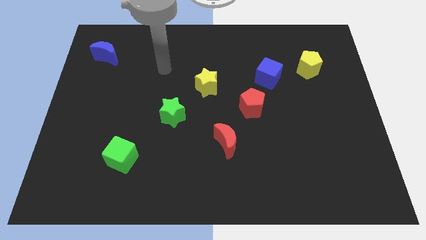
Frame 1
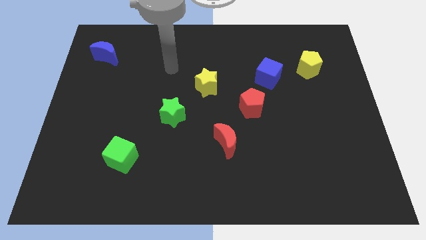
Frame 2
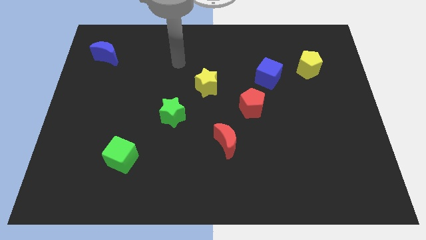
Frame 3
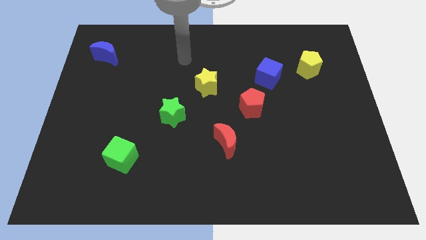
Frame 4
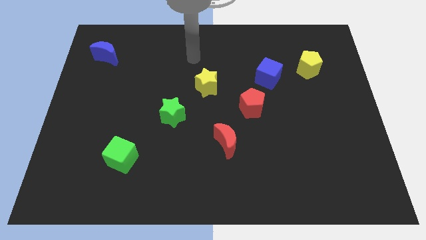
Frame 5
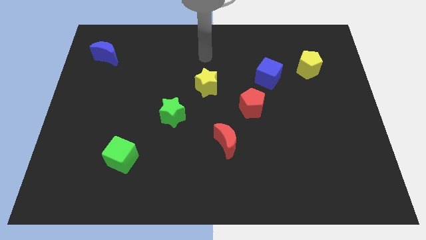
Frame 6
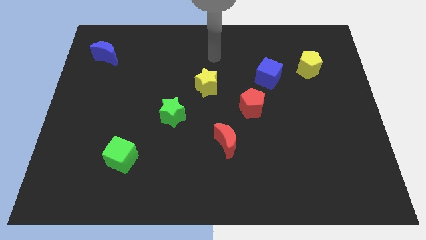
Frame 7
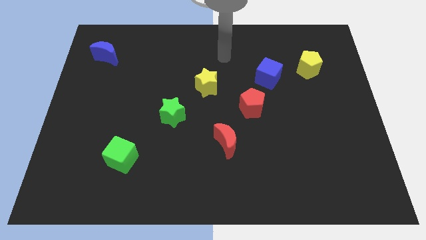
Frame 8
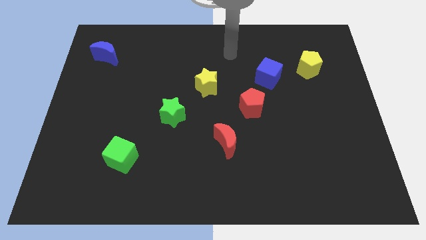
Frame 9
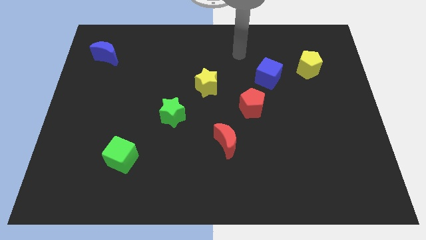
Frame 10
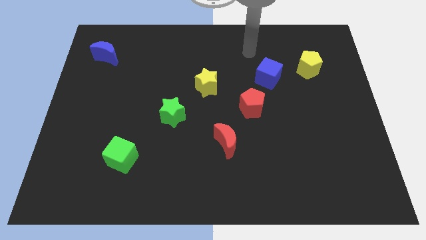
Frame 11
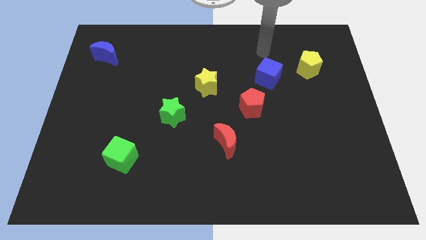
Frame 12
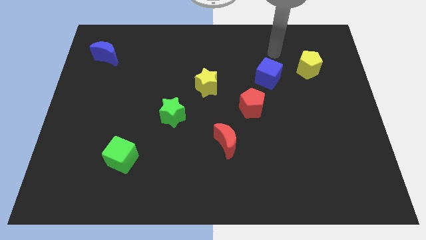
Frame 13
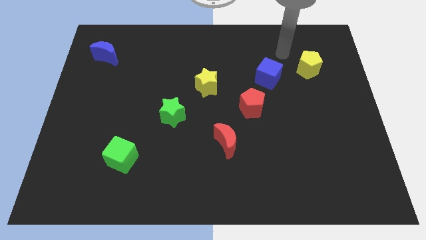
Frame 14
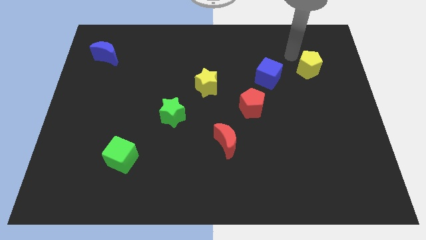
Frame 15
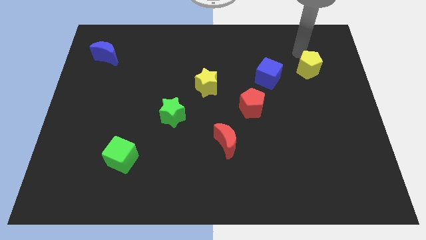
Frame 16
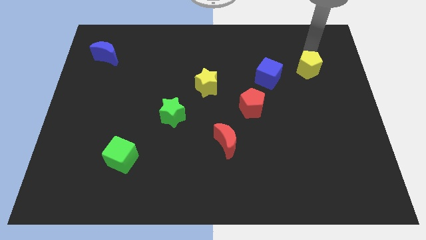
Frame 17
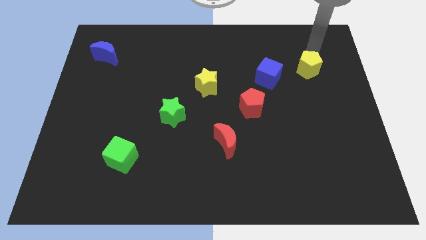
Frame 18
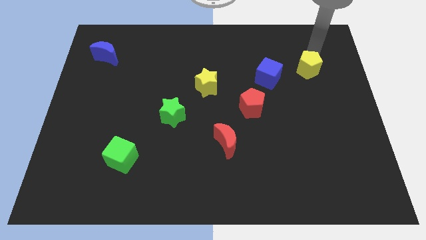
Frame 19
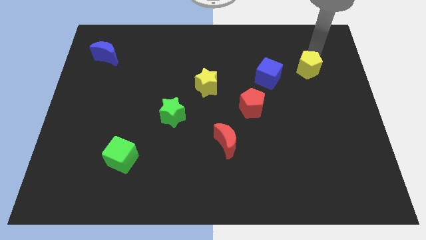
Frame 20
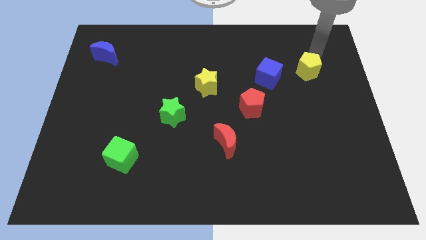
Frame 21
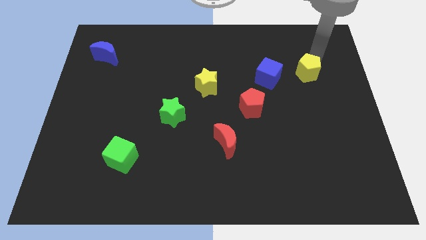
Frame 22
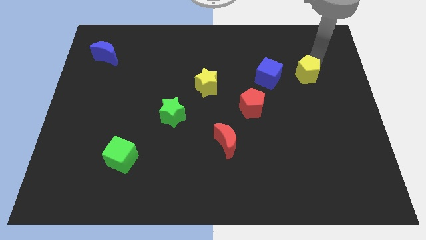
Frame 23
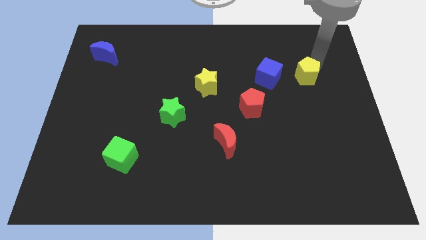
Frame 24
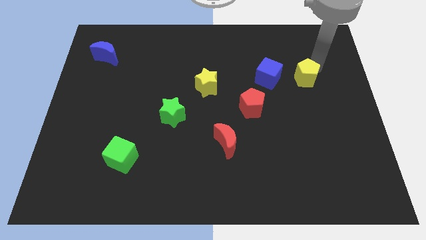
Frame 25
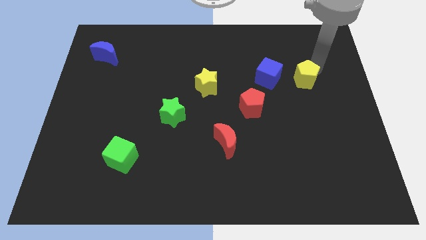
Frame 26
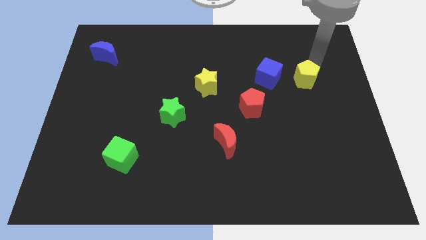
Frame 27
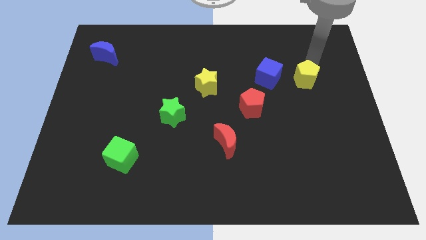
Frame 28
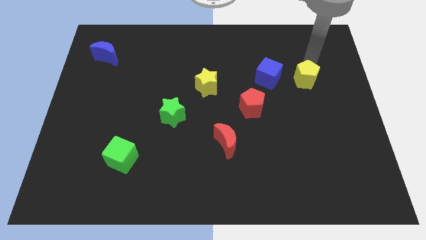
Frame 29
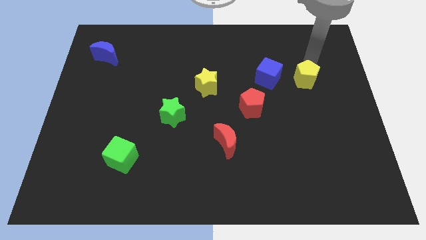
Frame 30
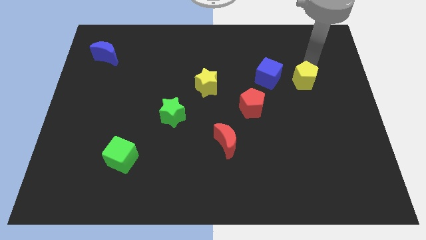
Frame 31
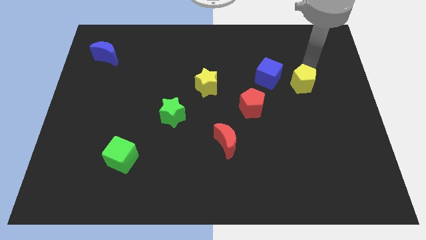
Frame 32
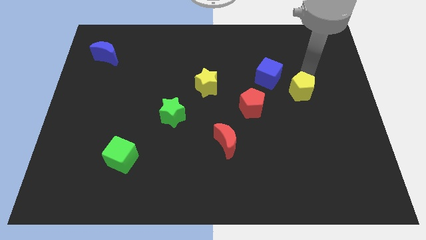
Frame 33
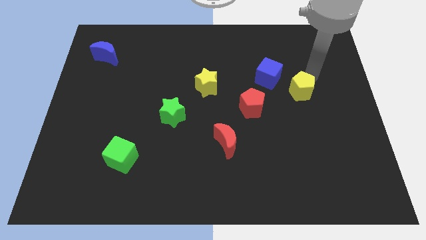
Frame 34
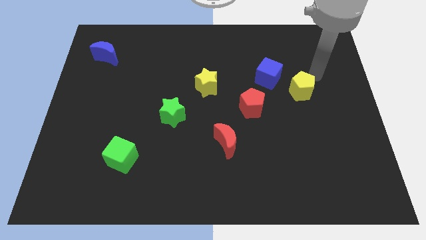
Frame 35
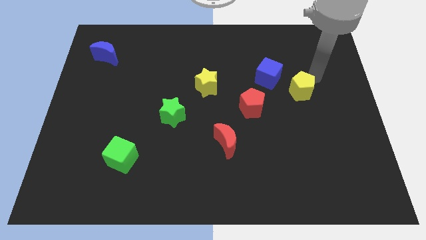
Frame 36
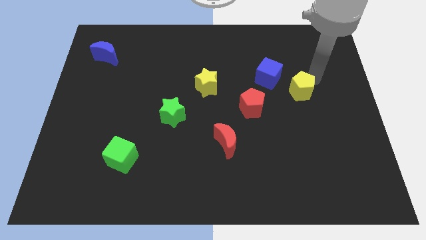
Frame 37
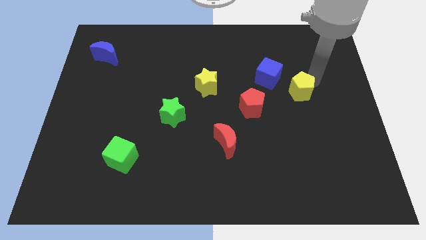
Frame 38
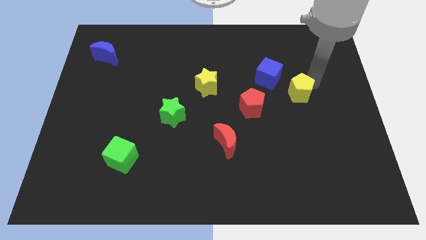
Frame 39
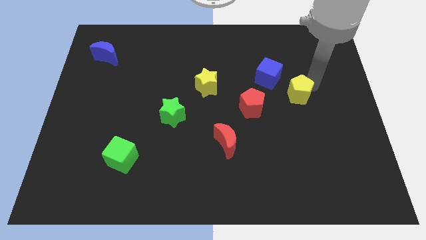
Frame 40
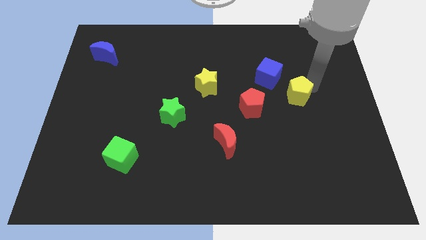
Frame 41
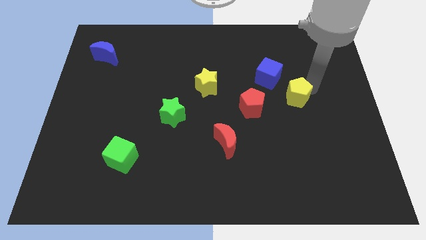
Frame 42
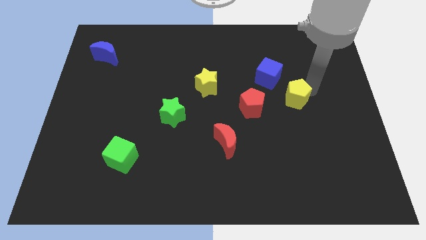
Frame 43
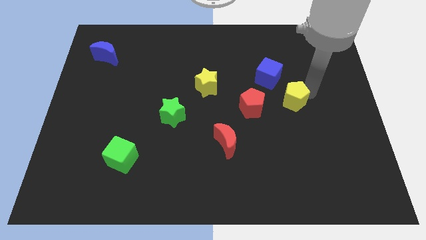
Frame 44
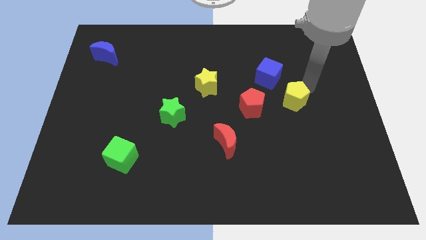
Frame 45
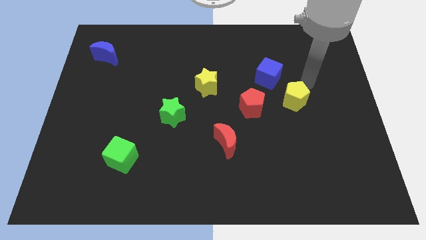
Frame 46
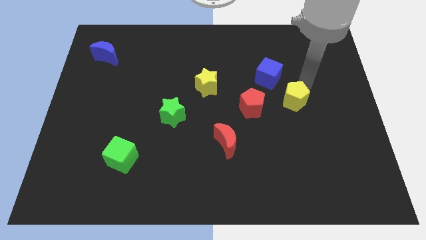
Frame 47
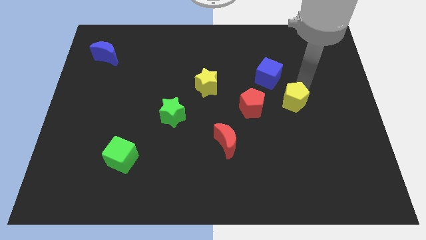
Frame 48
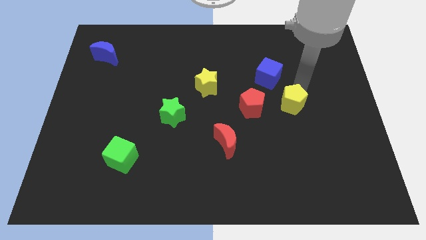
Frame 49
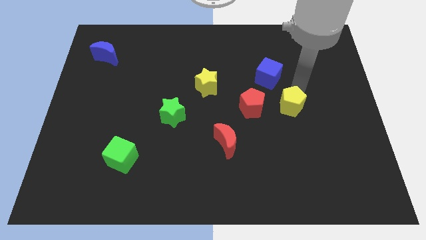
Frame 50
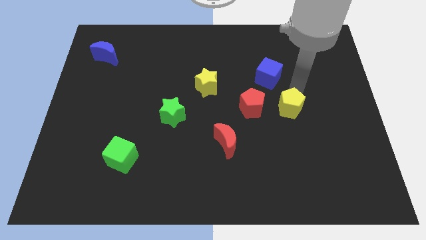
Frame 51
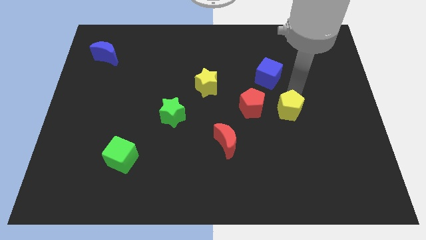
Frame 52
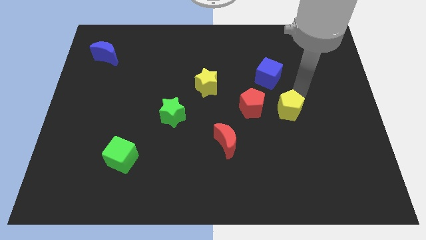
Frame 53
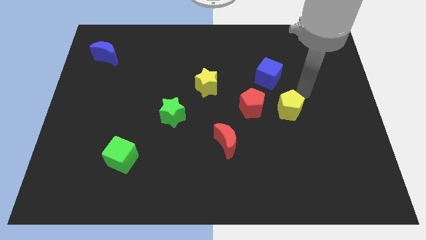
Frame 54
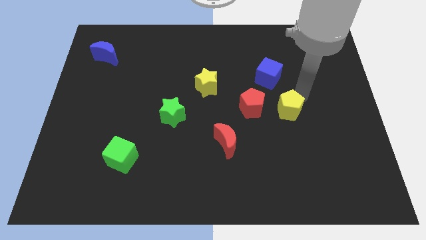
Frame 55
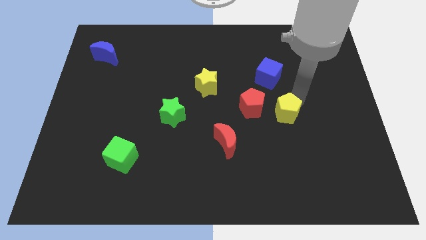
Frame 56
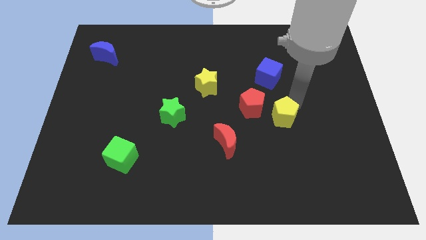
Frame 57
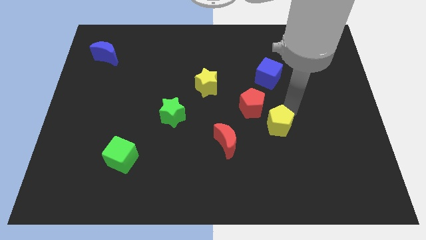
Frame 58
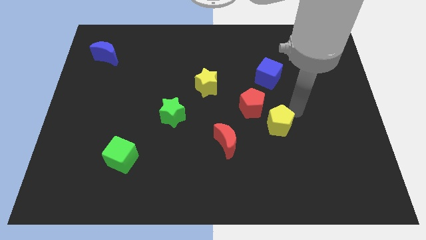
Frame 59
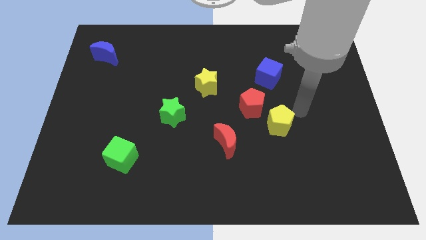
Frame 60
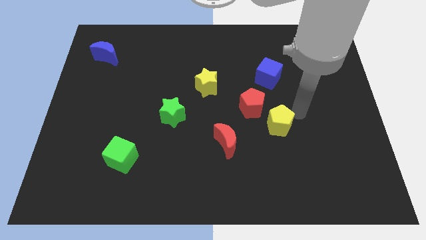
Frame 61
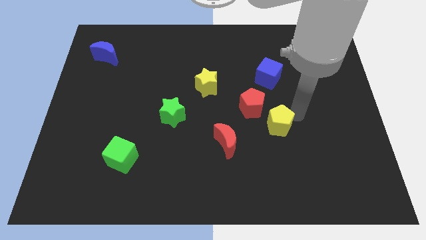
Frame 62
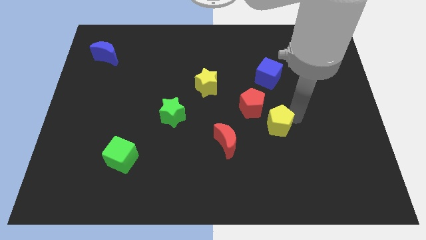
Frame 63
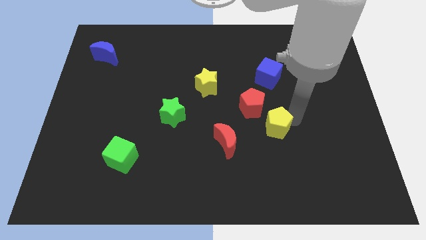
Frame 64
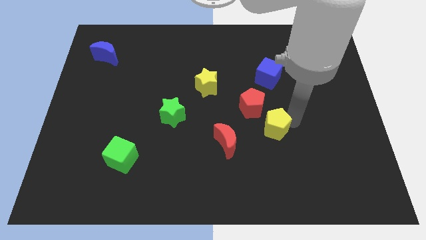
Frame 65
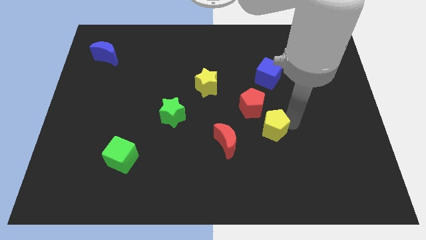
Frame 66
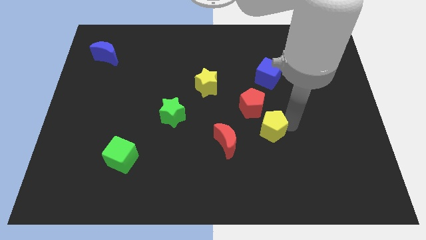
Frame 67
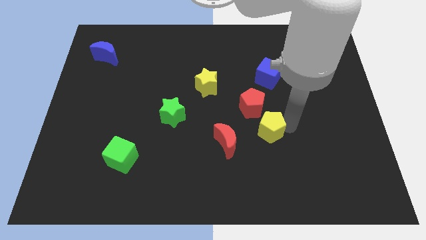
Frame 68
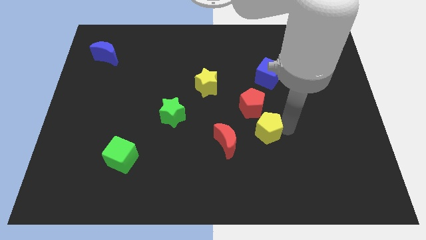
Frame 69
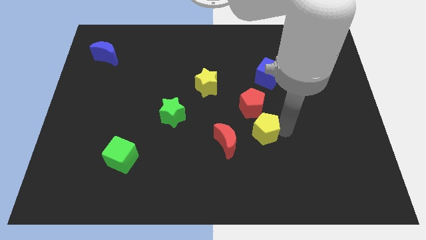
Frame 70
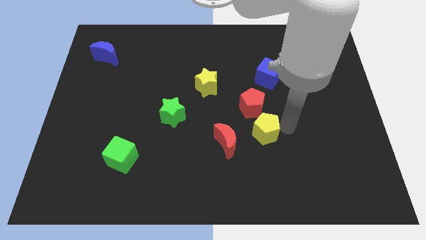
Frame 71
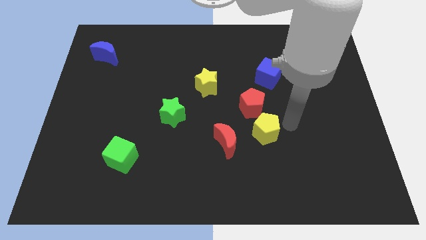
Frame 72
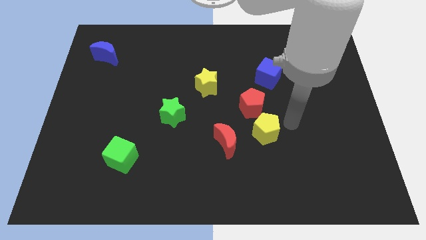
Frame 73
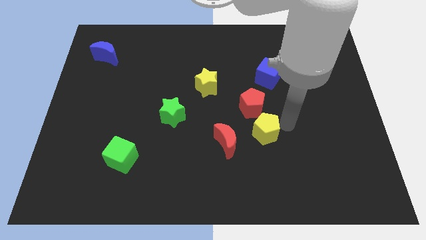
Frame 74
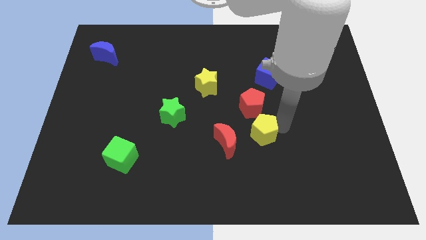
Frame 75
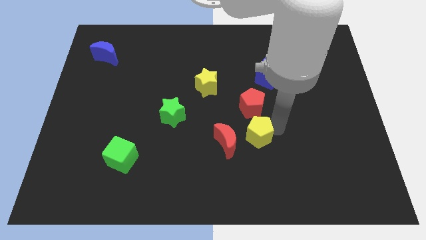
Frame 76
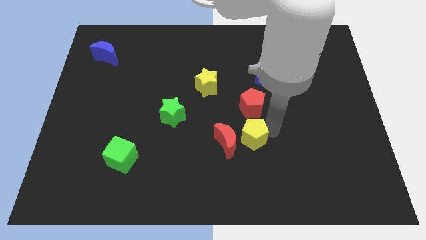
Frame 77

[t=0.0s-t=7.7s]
push the yellow pentagon next to the red moon
